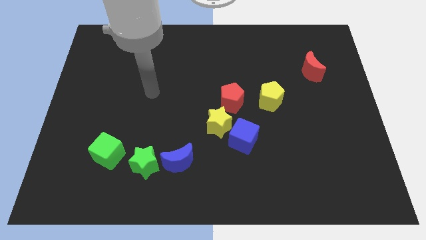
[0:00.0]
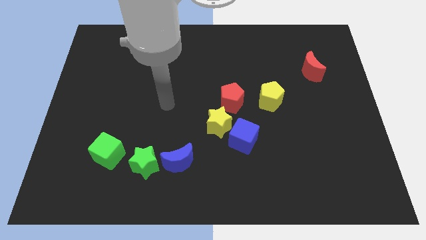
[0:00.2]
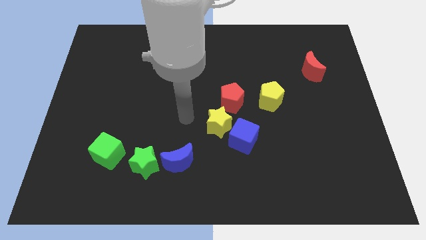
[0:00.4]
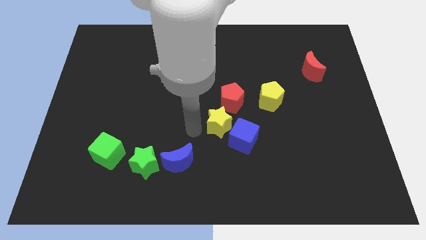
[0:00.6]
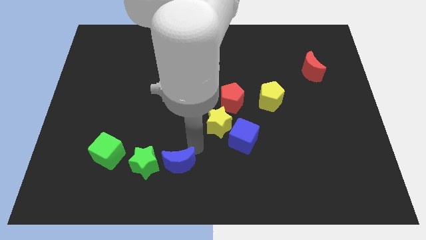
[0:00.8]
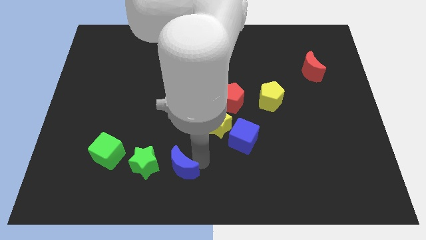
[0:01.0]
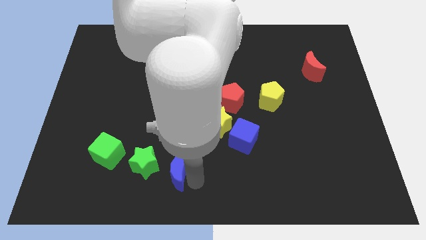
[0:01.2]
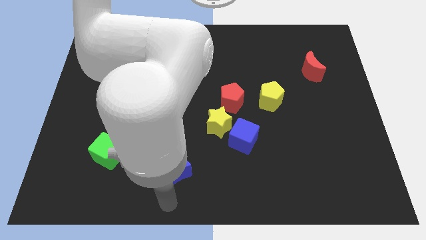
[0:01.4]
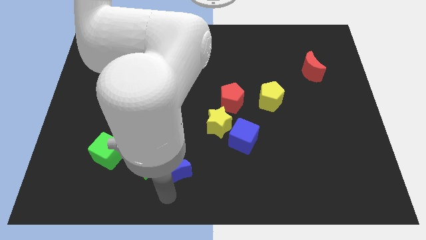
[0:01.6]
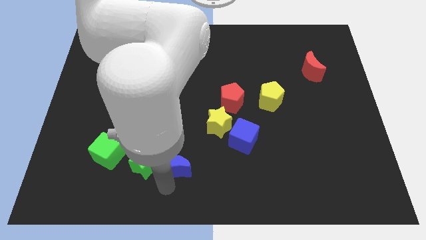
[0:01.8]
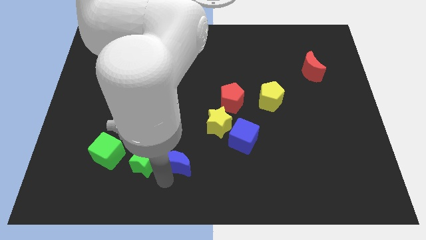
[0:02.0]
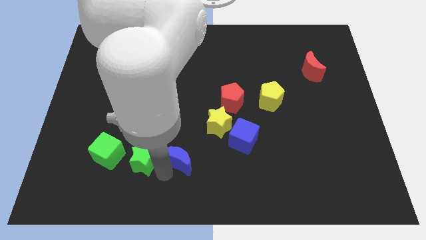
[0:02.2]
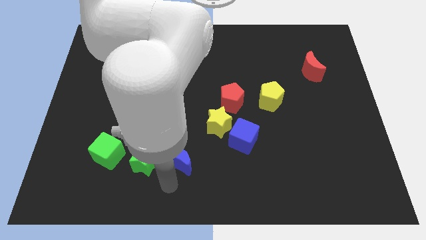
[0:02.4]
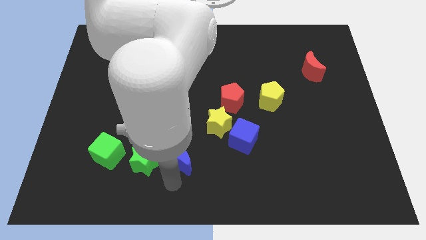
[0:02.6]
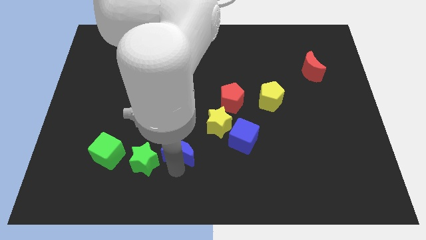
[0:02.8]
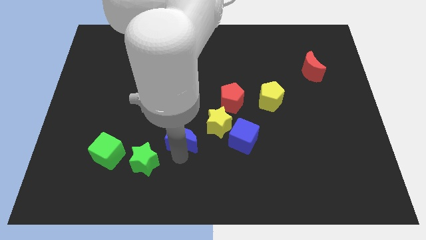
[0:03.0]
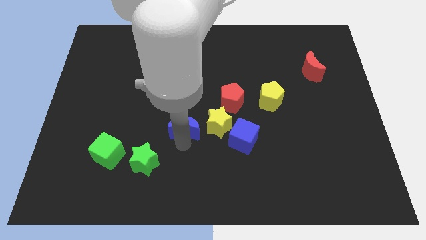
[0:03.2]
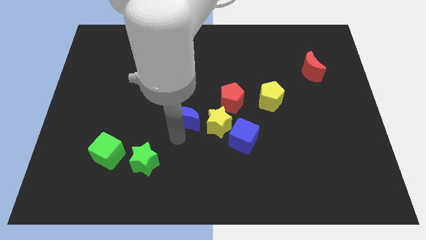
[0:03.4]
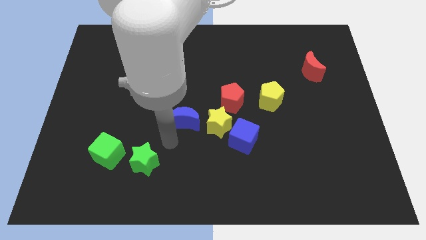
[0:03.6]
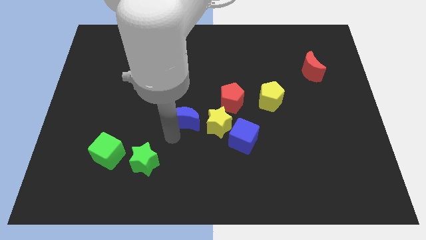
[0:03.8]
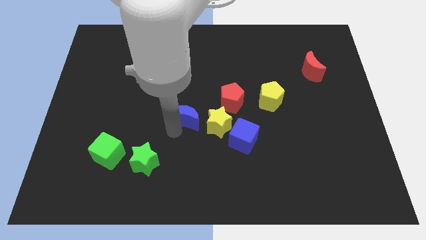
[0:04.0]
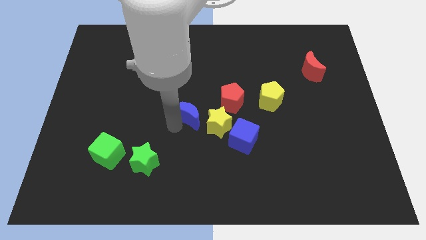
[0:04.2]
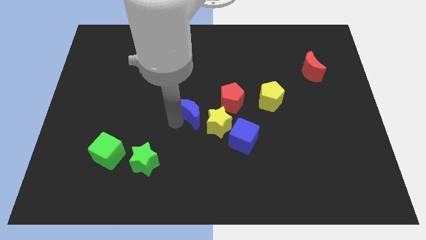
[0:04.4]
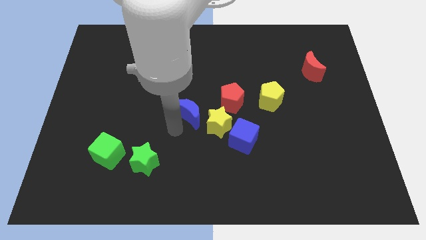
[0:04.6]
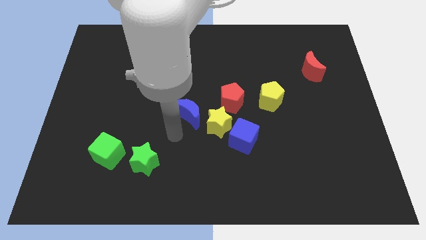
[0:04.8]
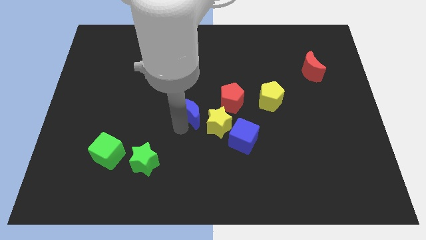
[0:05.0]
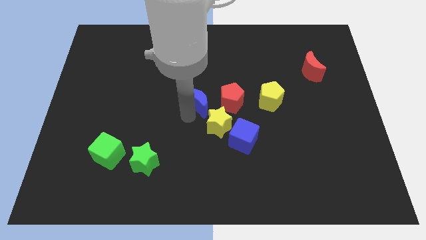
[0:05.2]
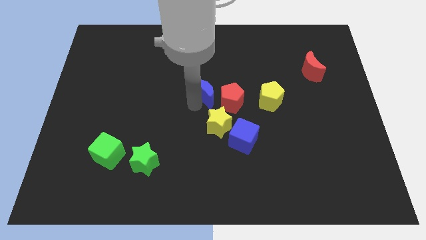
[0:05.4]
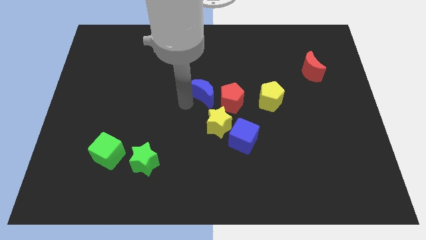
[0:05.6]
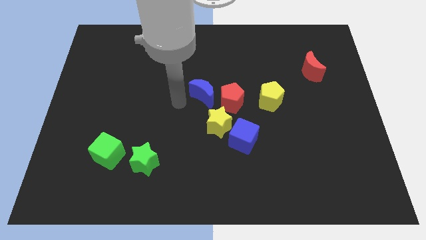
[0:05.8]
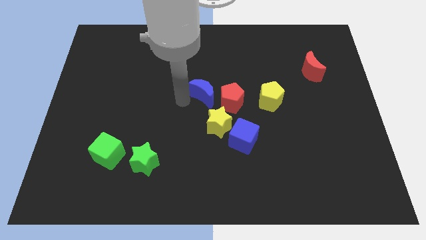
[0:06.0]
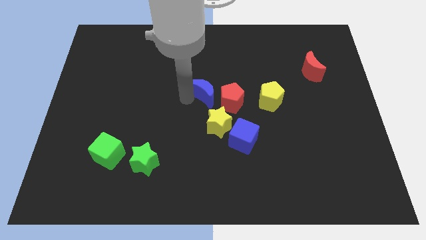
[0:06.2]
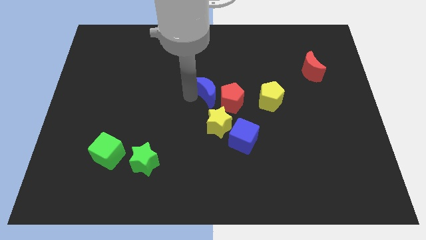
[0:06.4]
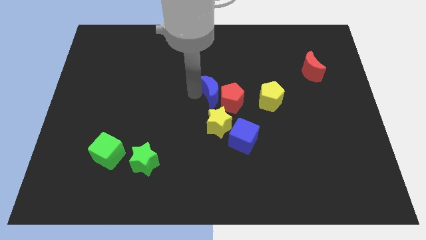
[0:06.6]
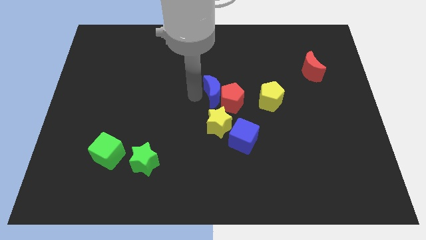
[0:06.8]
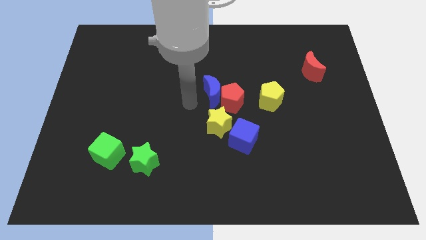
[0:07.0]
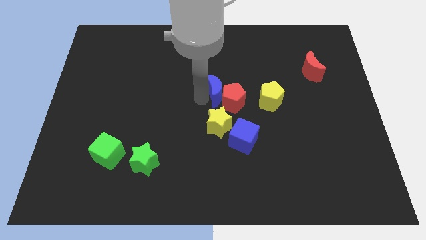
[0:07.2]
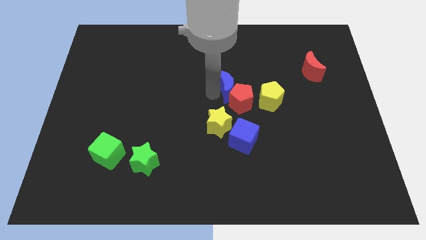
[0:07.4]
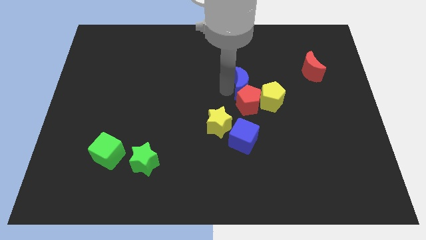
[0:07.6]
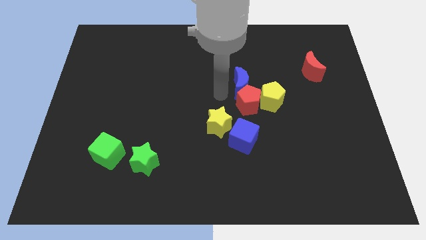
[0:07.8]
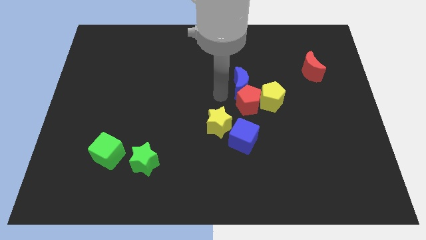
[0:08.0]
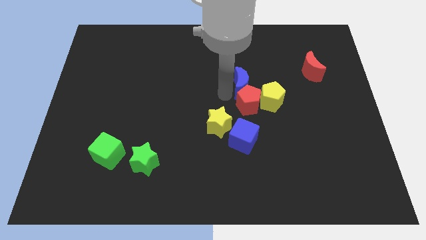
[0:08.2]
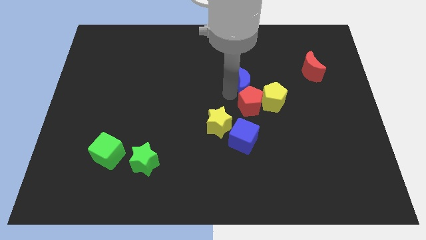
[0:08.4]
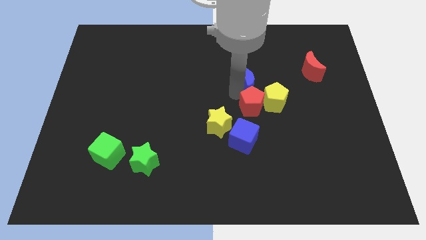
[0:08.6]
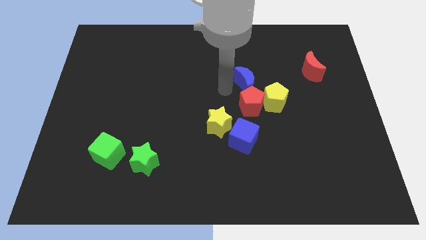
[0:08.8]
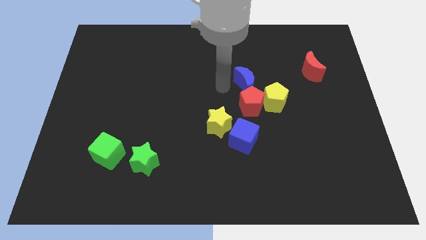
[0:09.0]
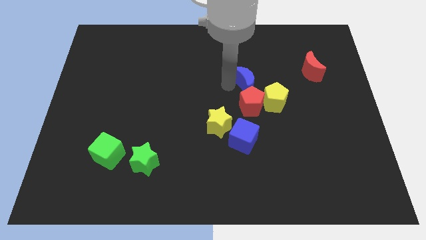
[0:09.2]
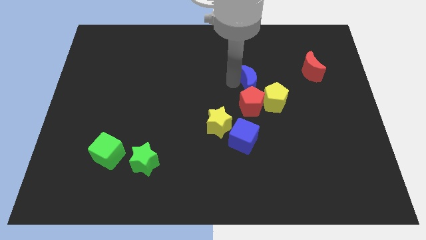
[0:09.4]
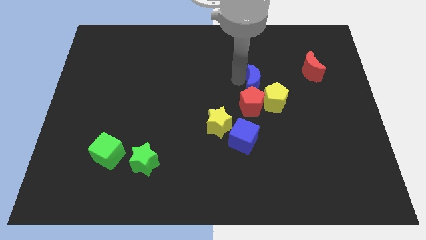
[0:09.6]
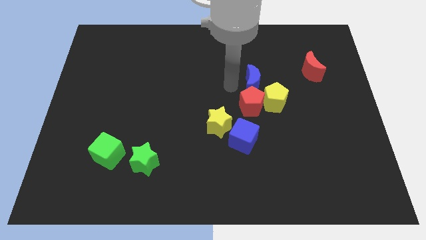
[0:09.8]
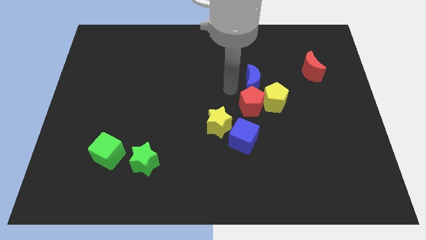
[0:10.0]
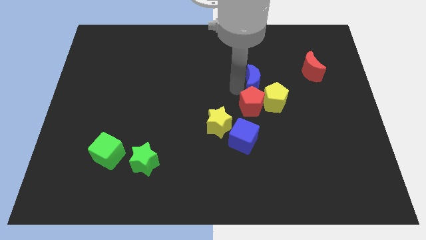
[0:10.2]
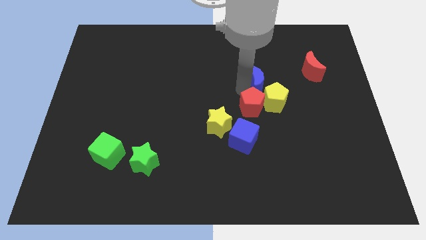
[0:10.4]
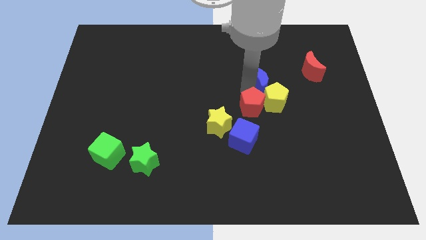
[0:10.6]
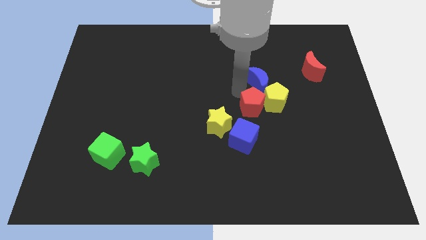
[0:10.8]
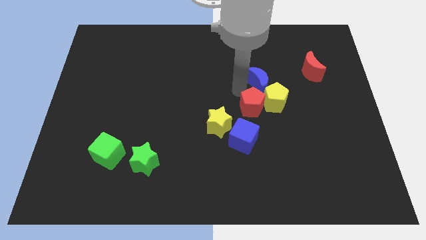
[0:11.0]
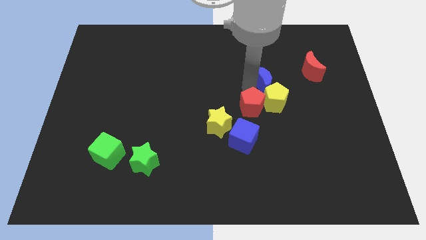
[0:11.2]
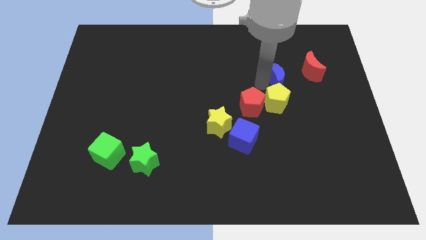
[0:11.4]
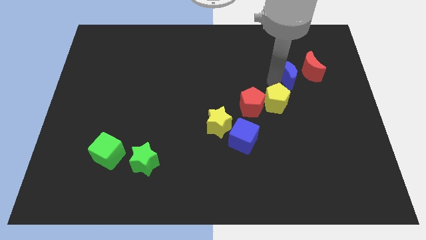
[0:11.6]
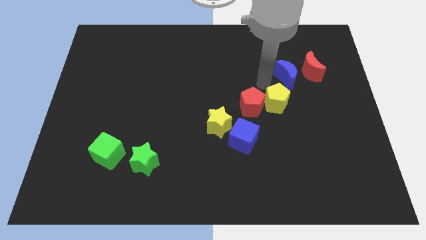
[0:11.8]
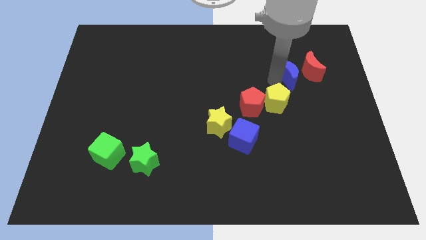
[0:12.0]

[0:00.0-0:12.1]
push the blue moon close to the red moon

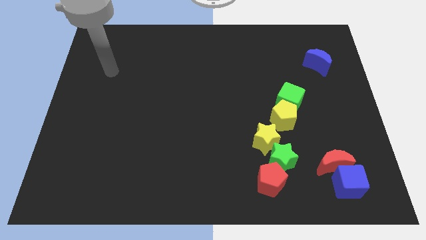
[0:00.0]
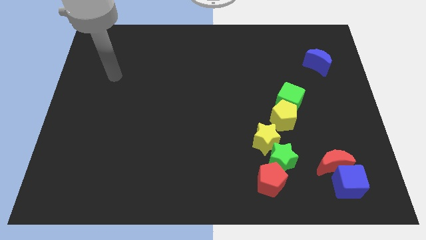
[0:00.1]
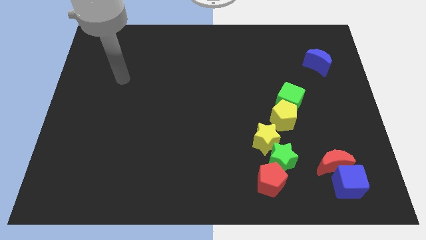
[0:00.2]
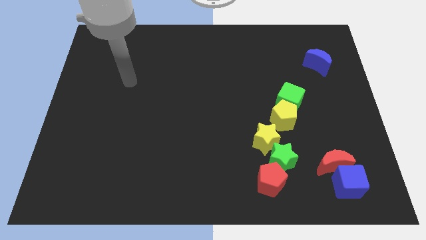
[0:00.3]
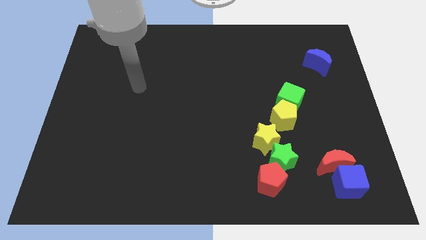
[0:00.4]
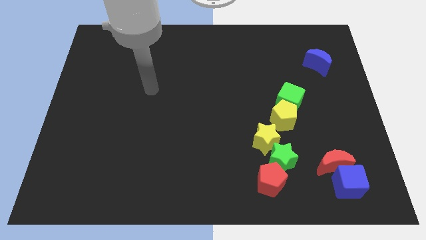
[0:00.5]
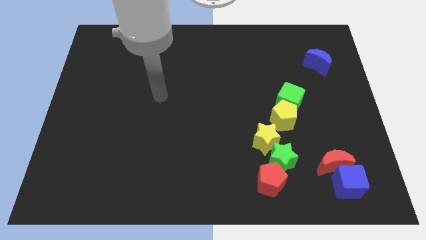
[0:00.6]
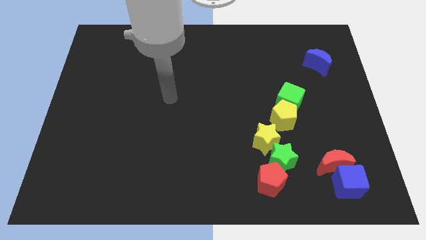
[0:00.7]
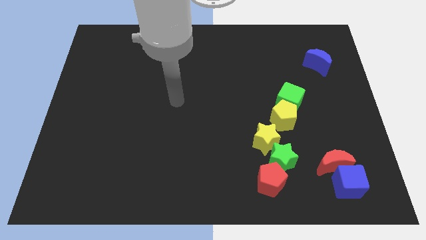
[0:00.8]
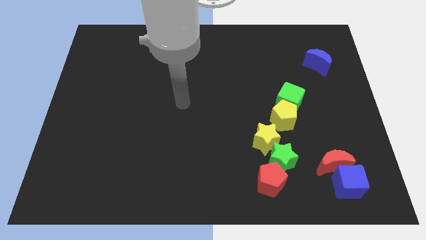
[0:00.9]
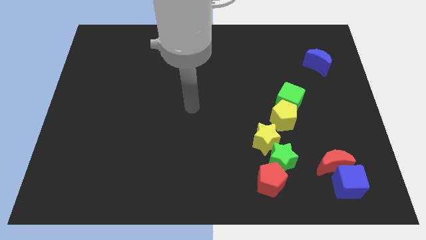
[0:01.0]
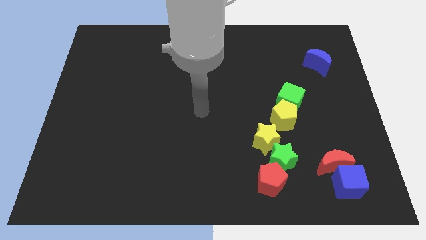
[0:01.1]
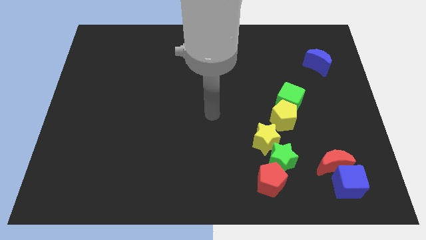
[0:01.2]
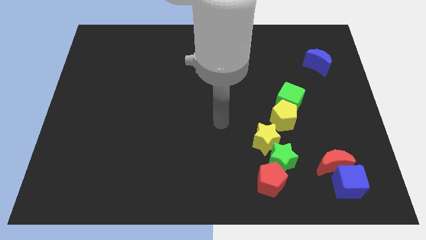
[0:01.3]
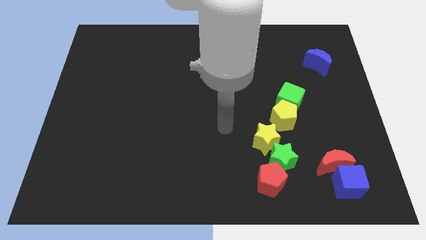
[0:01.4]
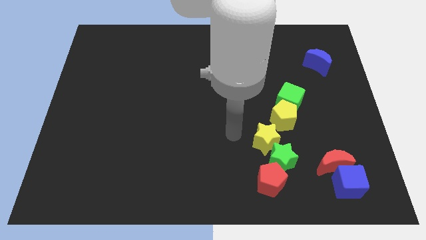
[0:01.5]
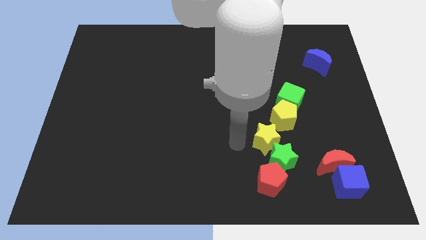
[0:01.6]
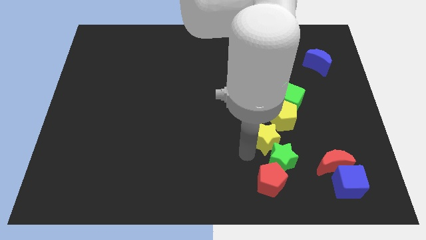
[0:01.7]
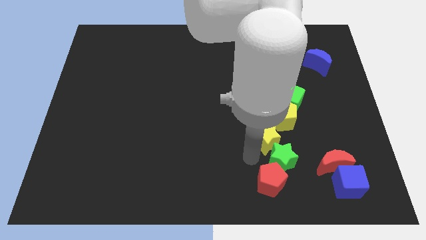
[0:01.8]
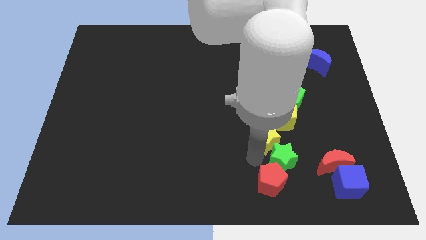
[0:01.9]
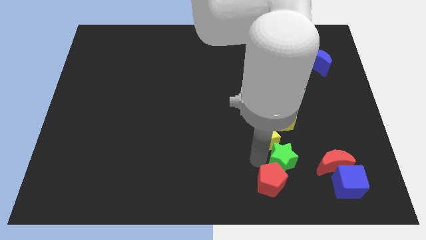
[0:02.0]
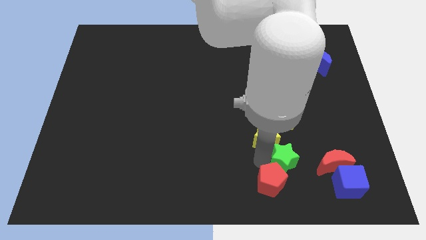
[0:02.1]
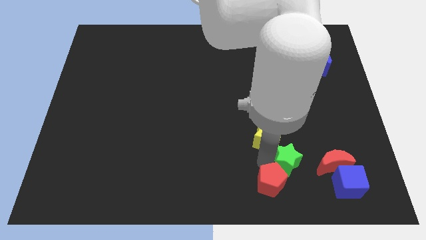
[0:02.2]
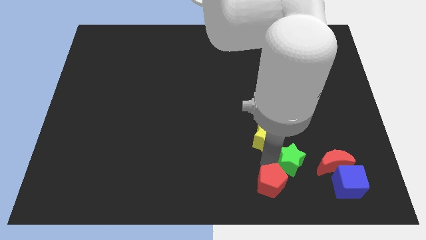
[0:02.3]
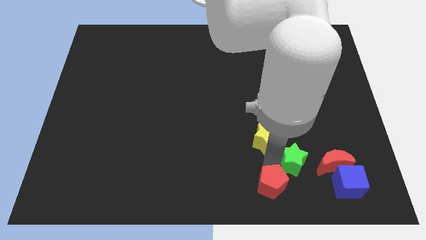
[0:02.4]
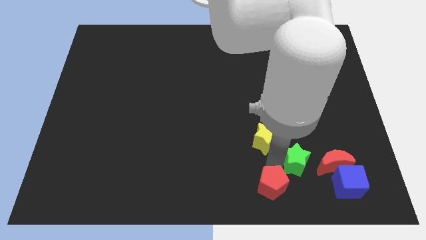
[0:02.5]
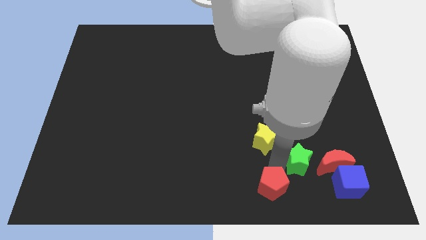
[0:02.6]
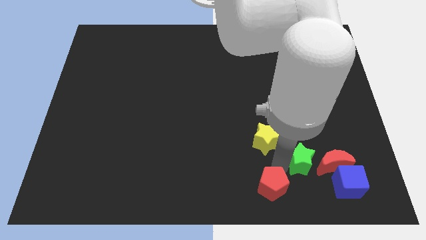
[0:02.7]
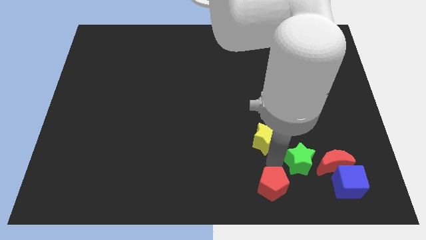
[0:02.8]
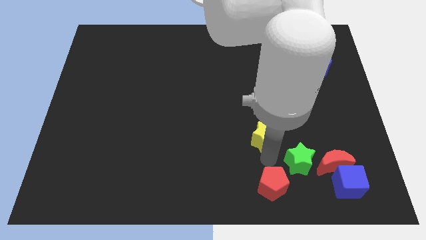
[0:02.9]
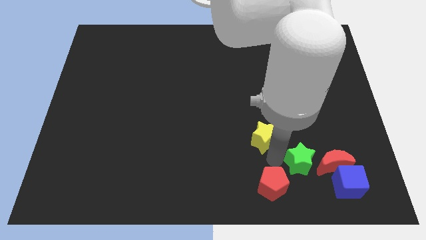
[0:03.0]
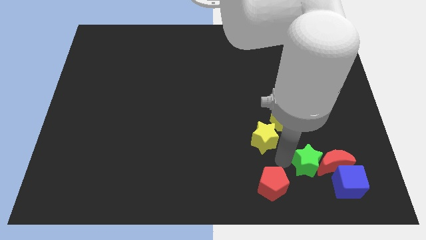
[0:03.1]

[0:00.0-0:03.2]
move the green star close to the red moon
